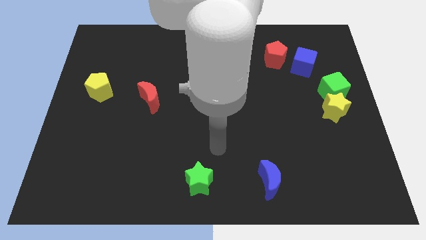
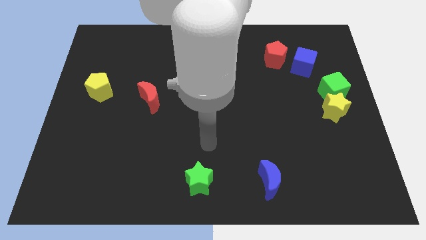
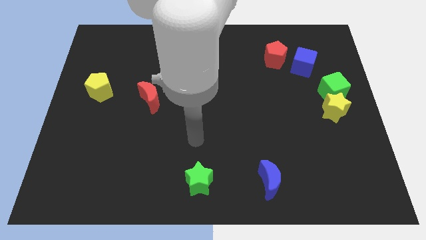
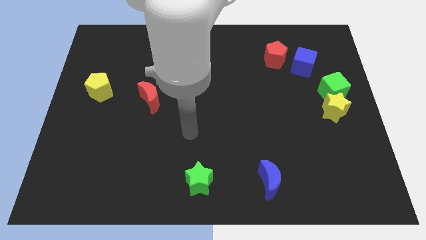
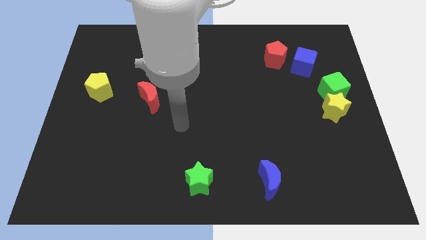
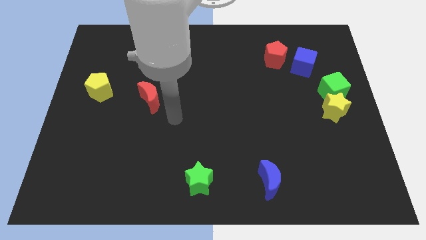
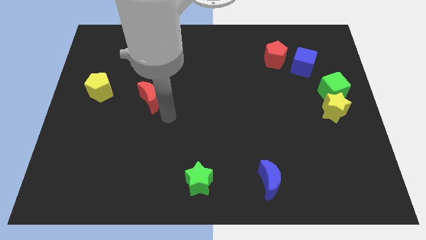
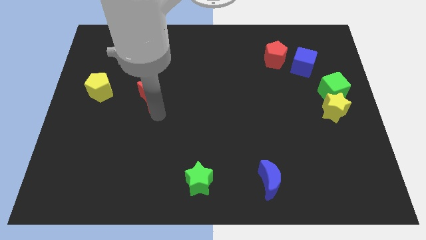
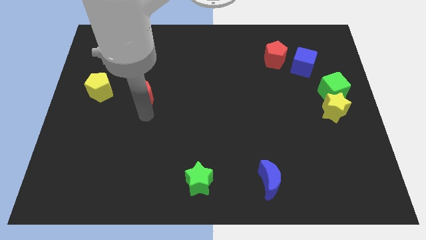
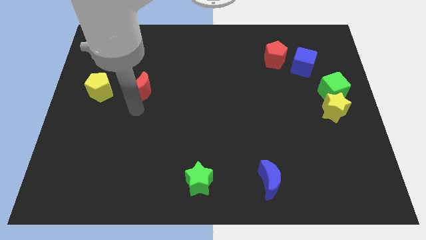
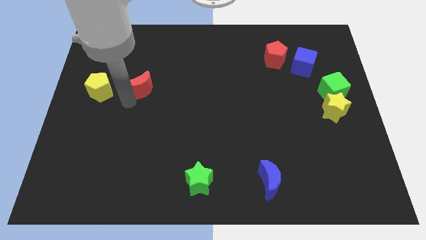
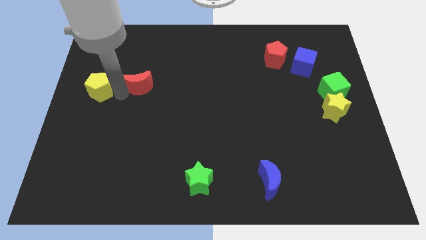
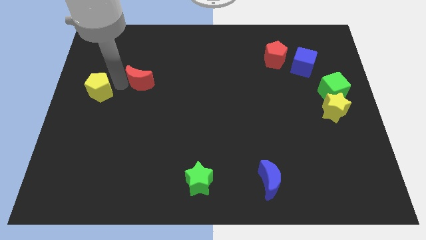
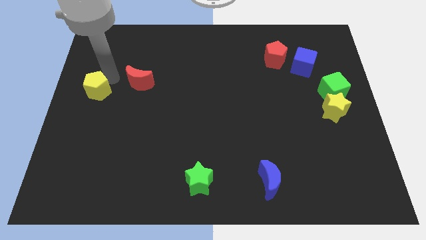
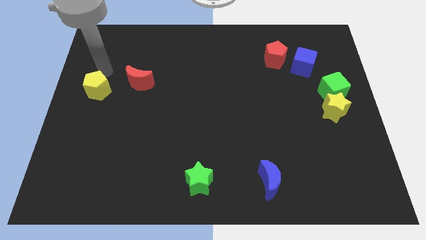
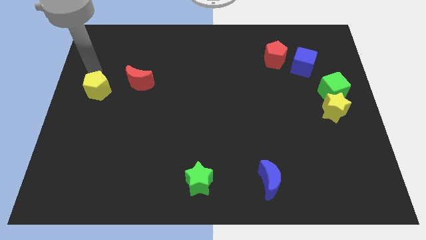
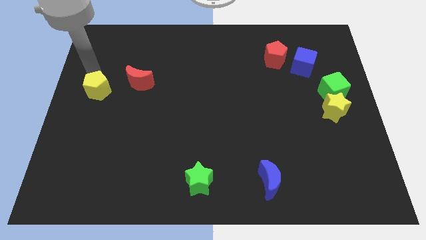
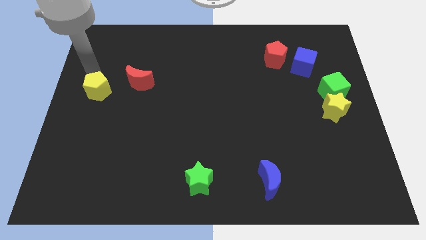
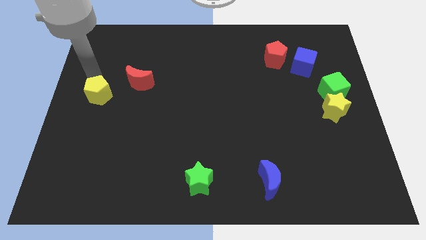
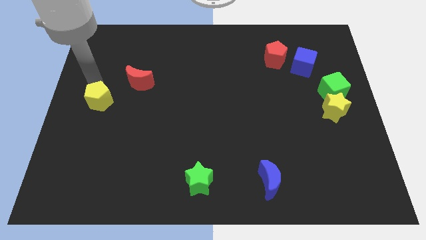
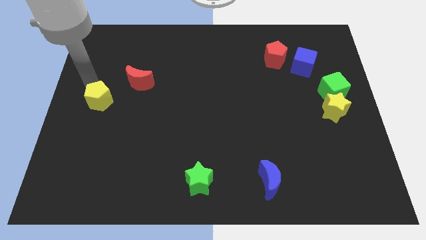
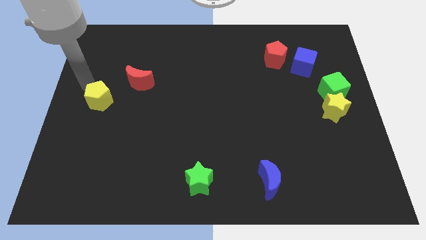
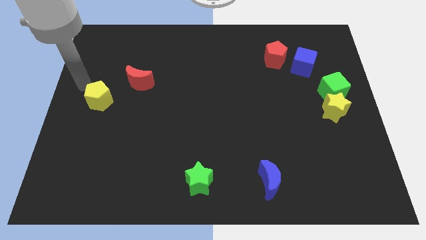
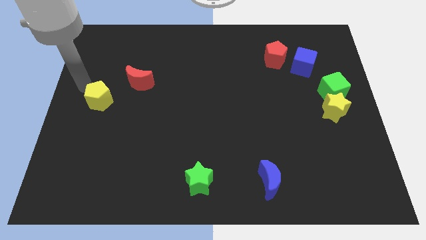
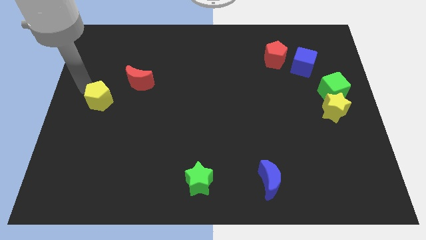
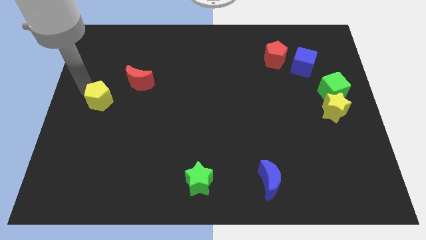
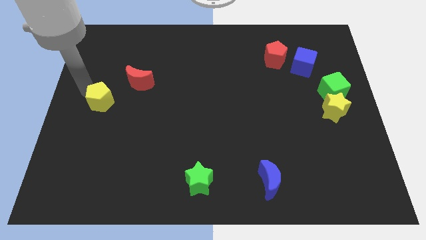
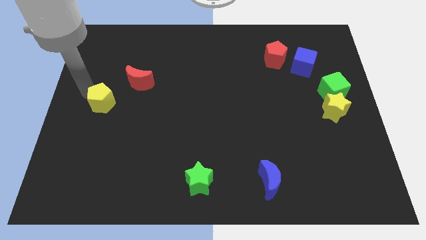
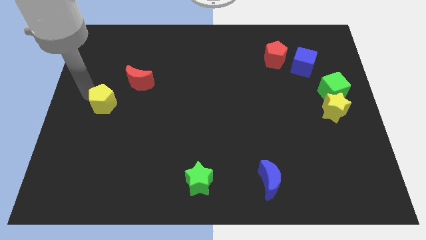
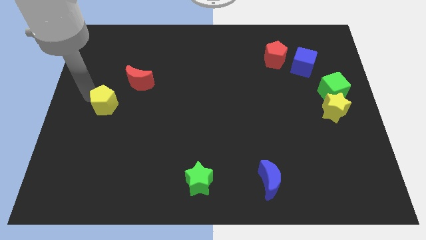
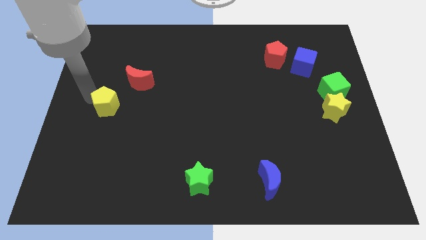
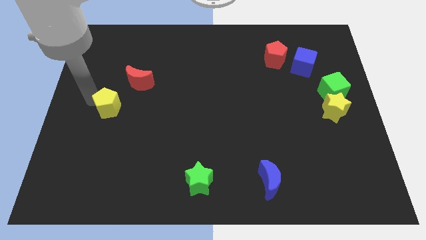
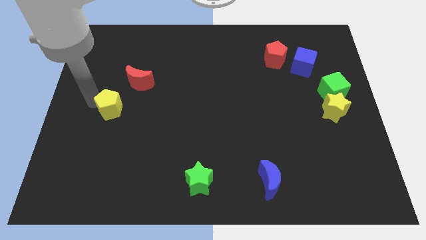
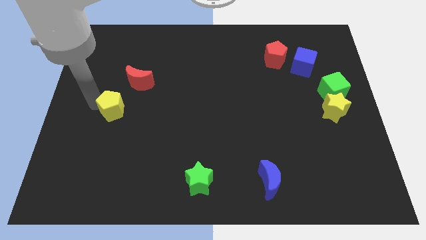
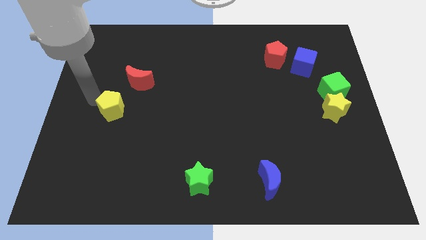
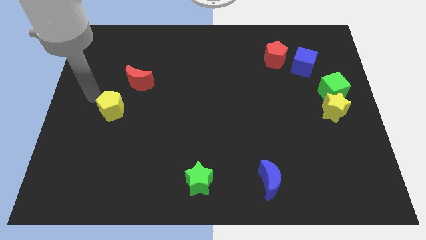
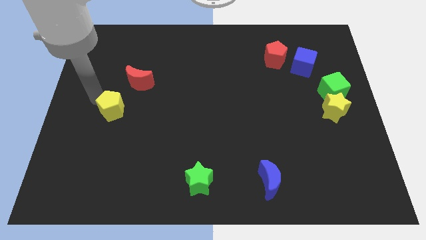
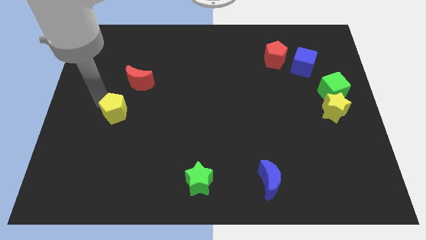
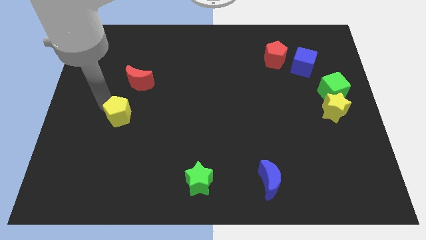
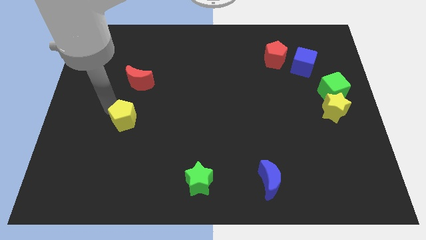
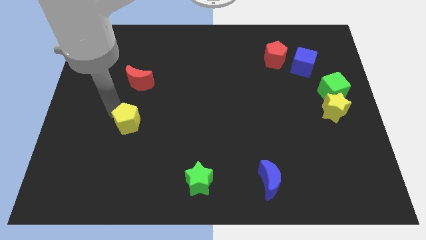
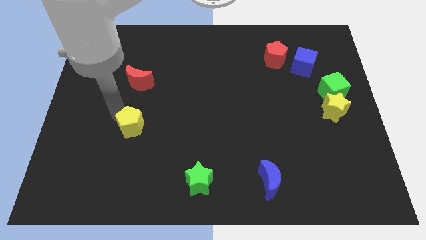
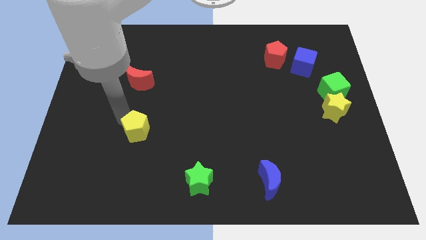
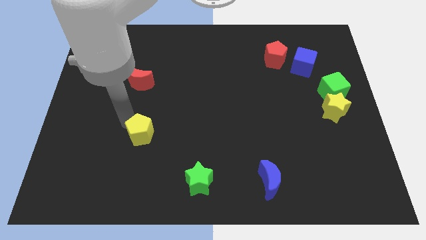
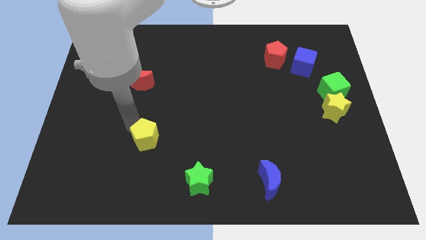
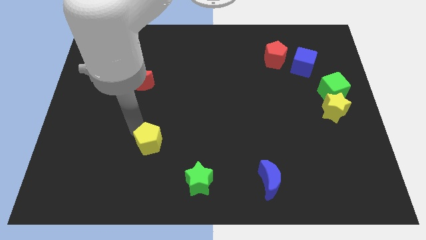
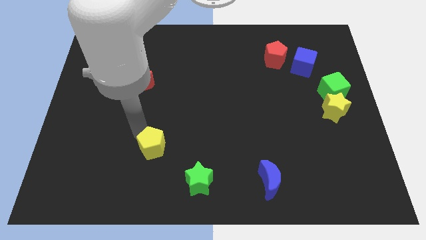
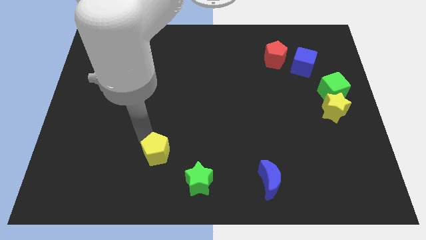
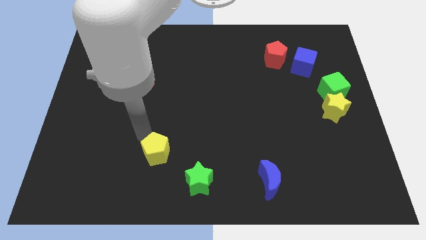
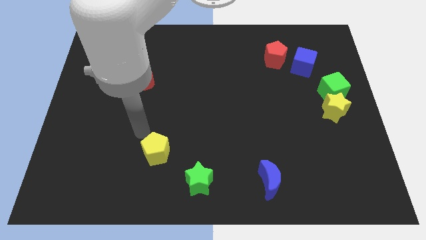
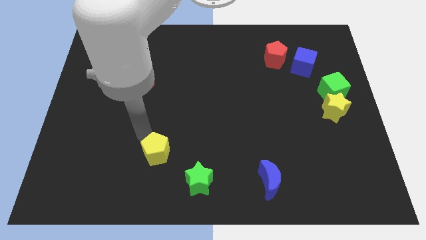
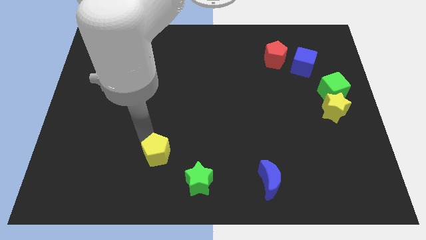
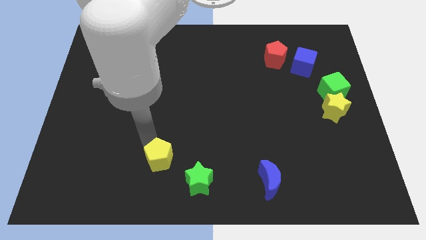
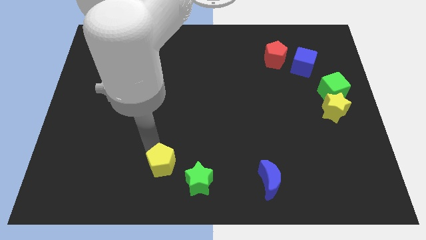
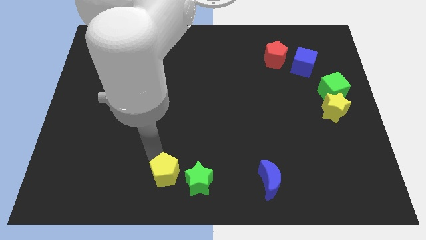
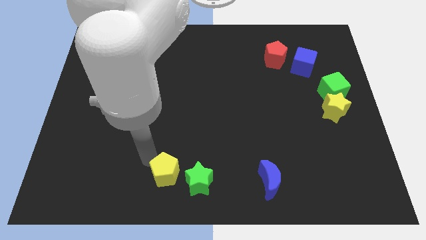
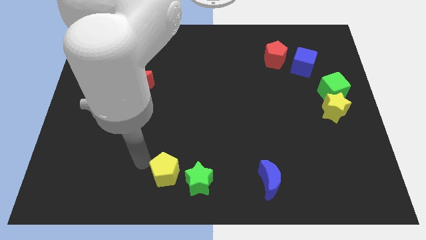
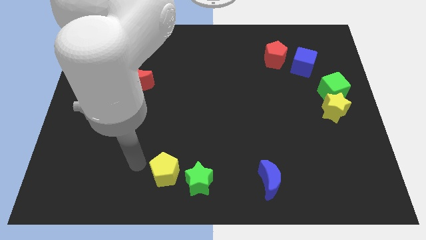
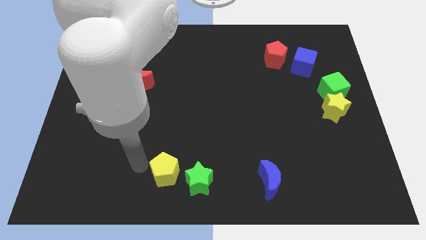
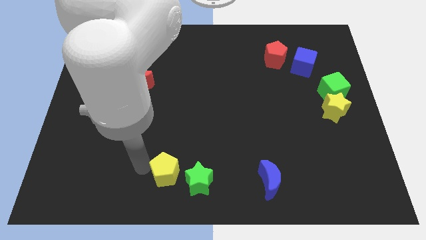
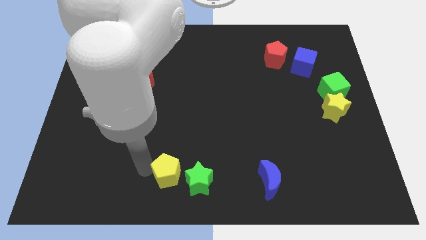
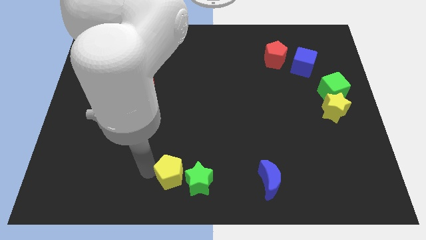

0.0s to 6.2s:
put the yellow pentagon to the green star

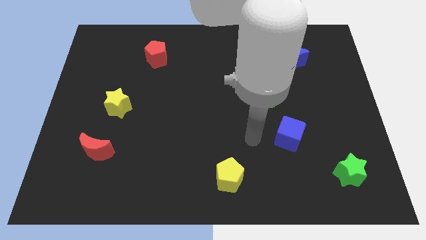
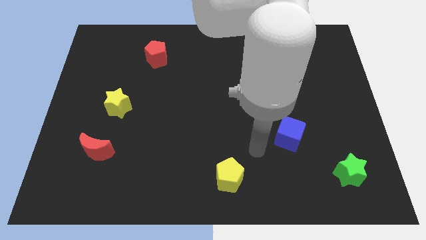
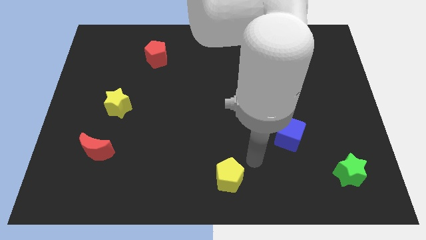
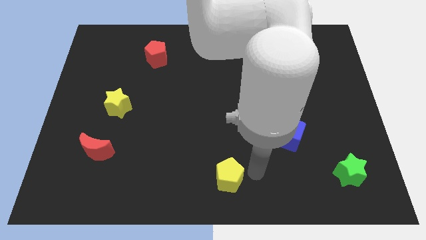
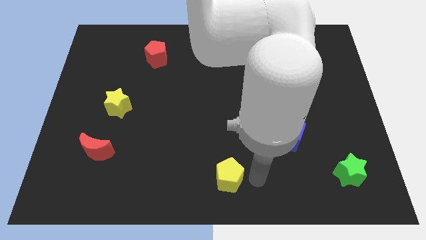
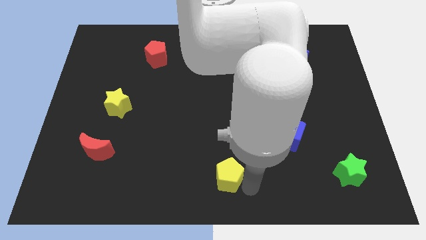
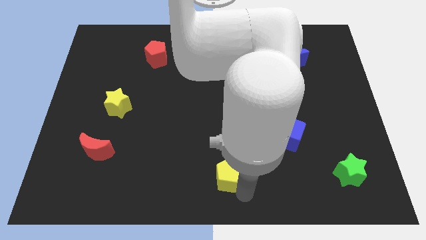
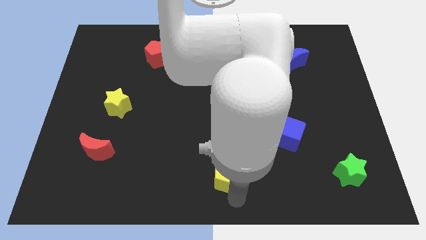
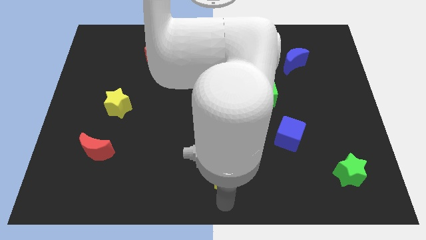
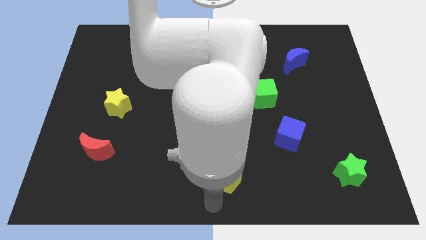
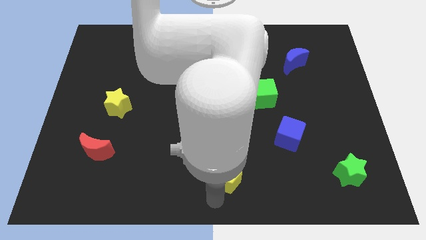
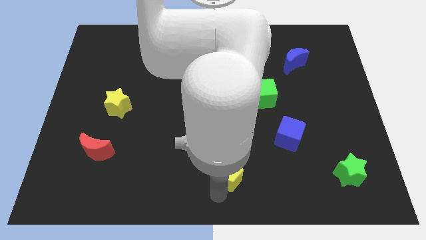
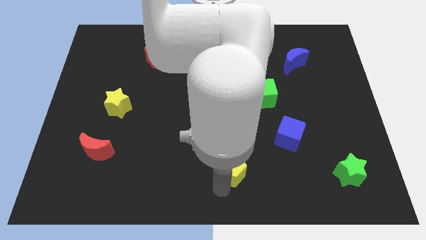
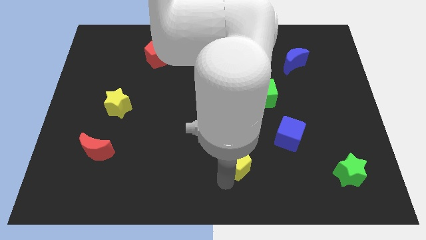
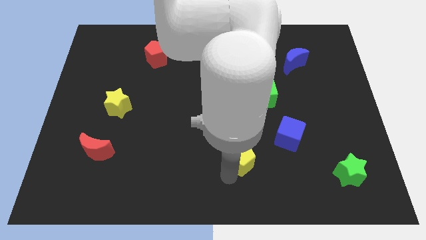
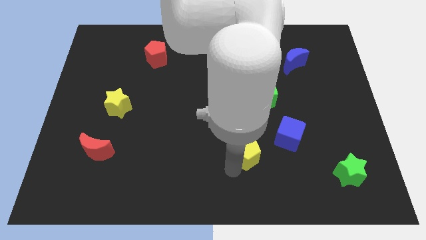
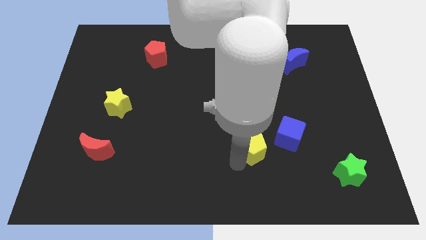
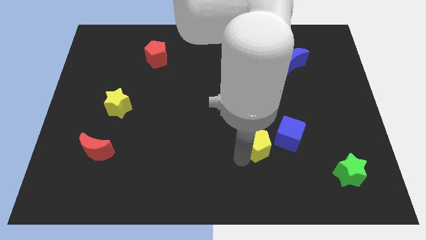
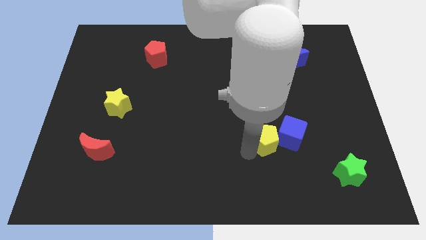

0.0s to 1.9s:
put the yellow pentagon close to the blue cube
